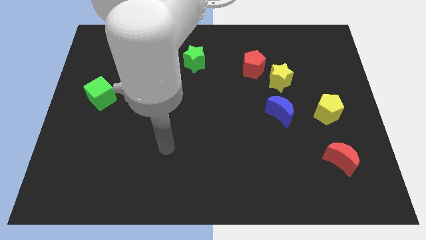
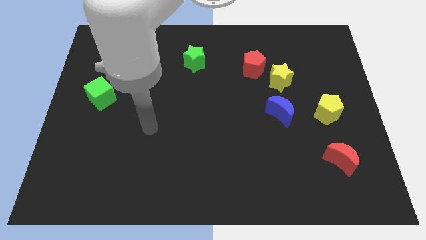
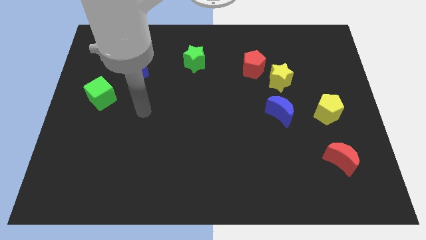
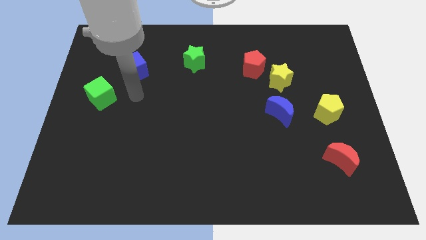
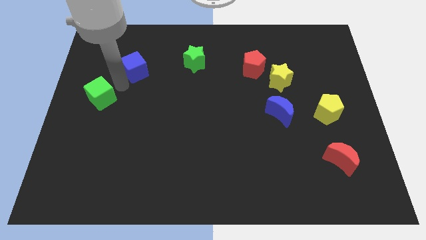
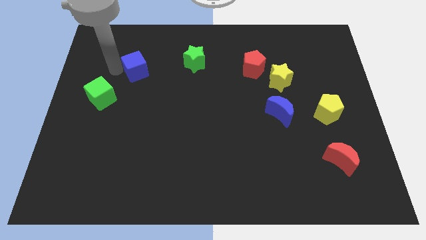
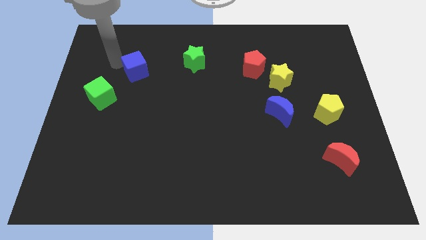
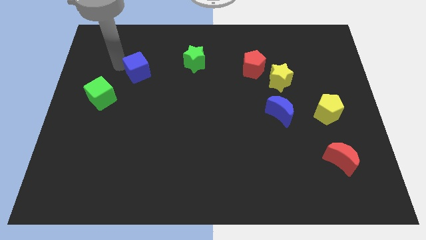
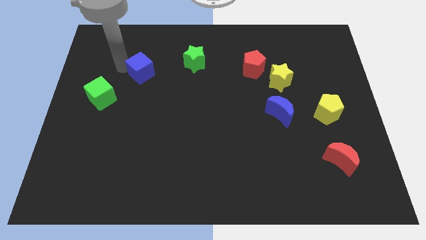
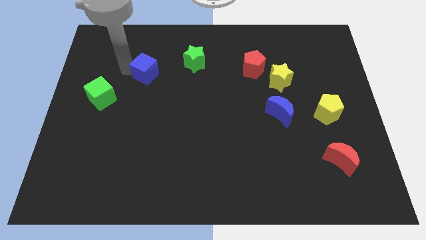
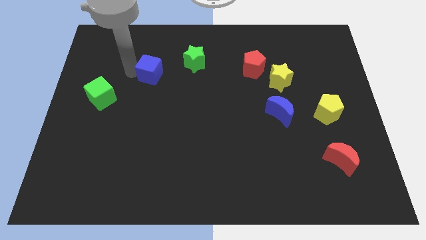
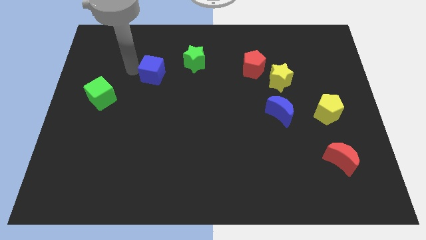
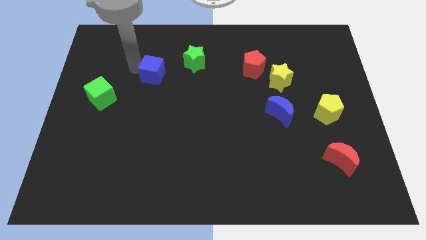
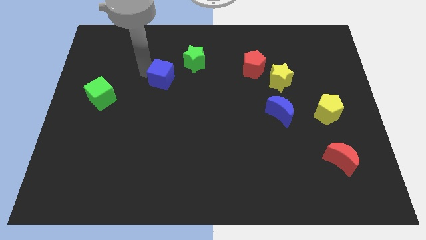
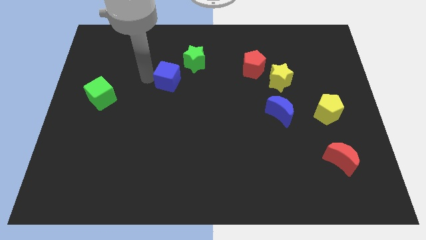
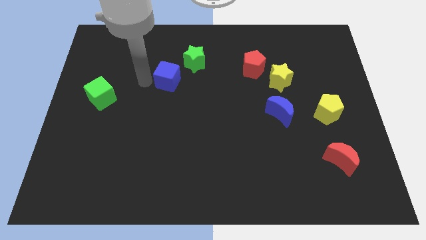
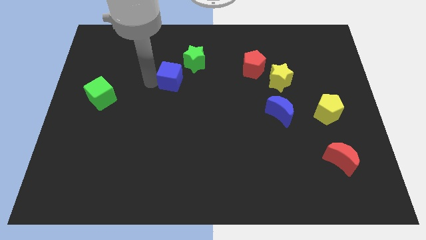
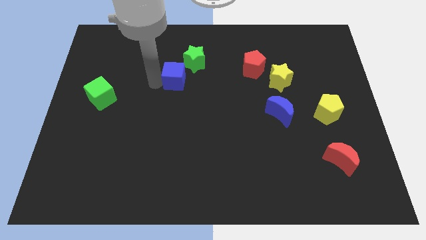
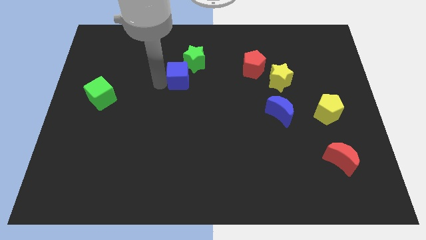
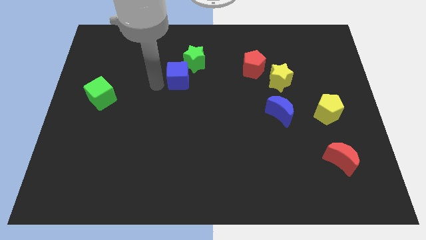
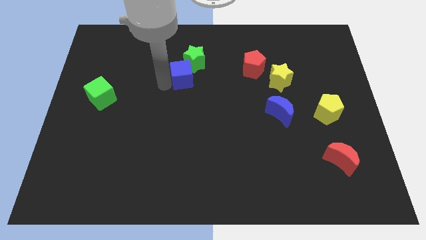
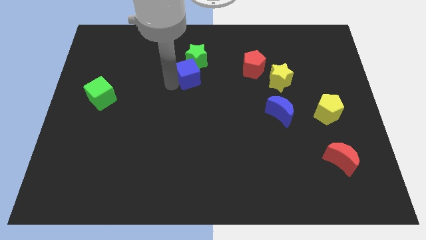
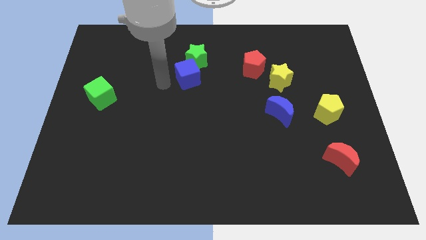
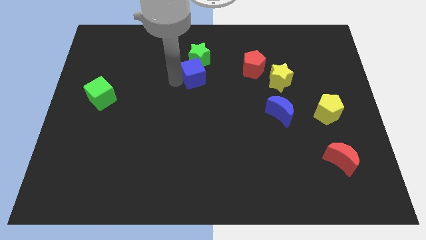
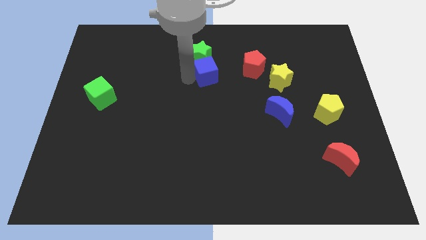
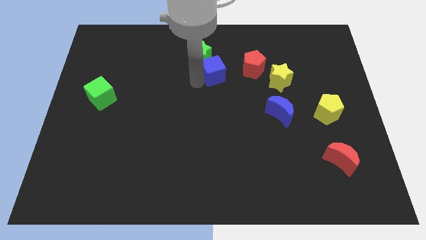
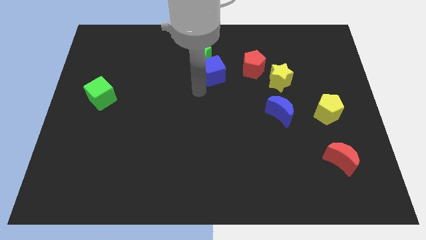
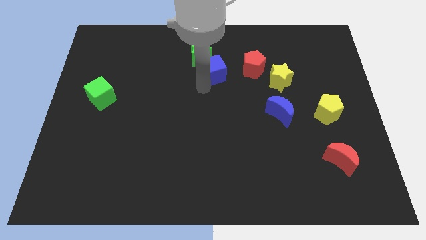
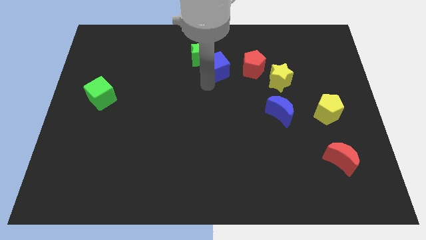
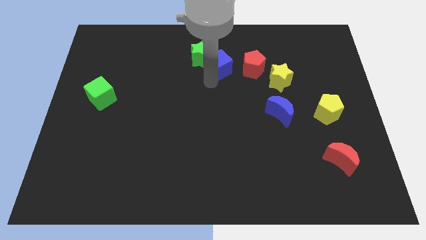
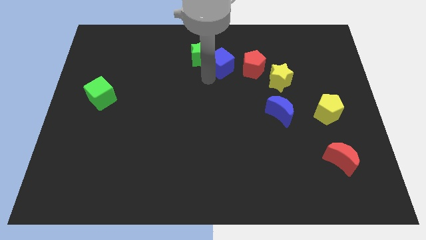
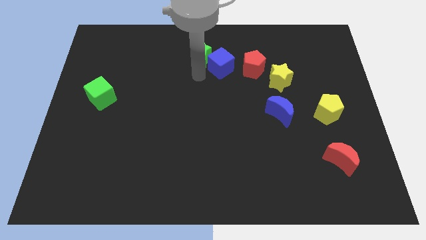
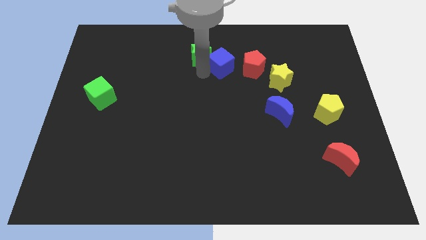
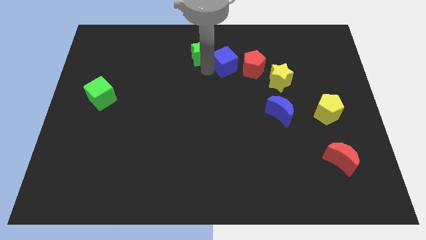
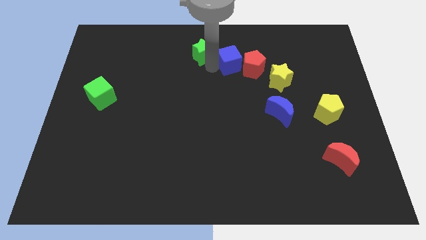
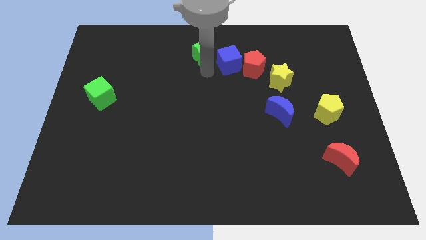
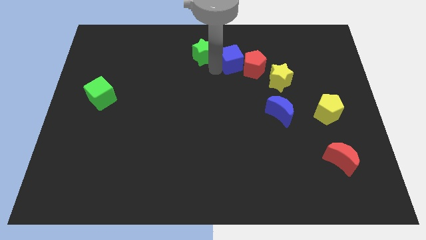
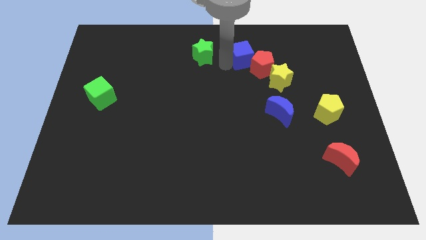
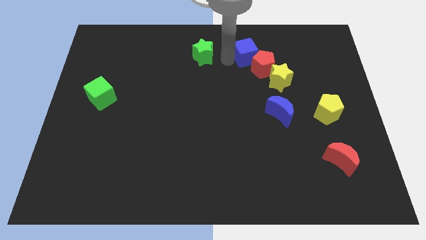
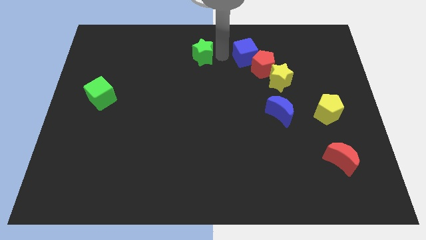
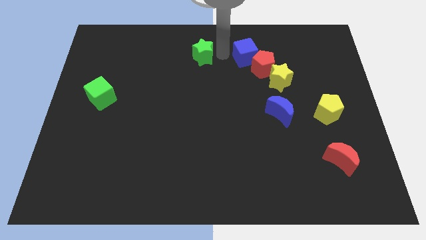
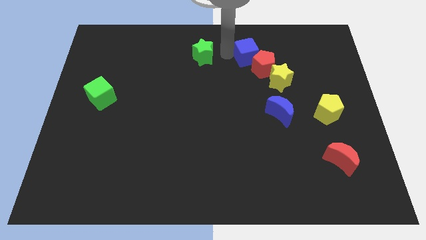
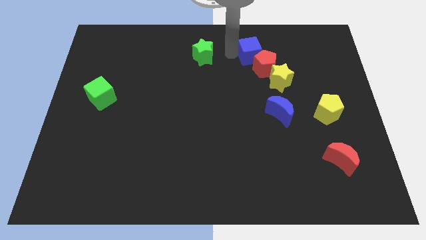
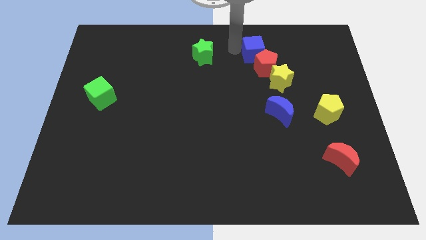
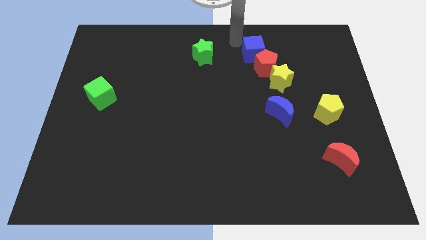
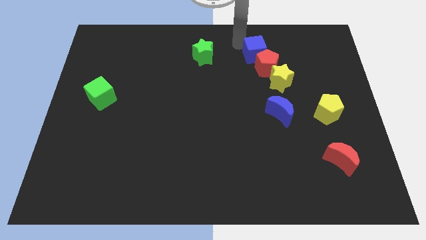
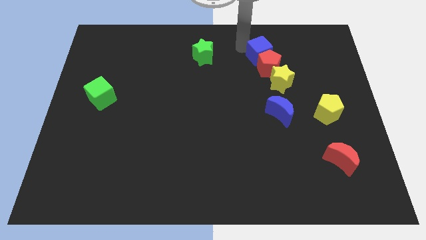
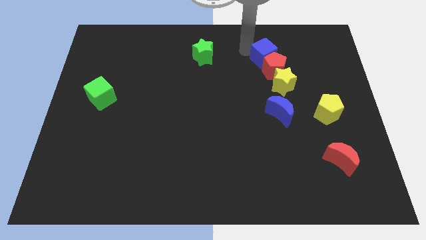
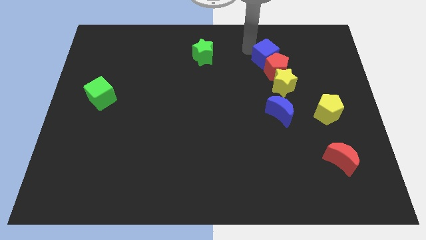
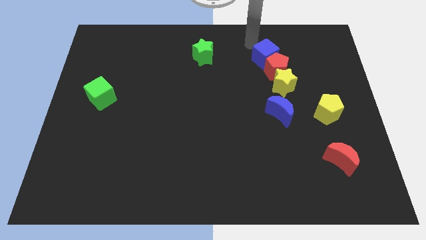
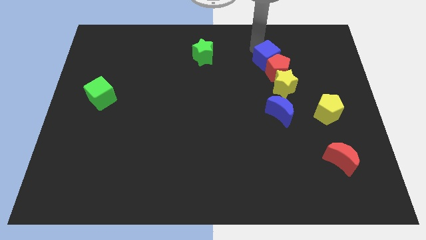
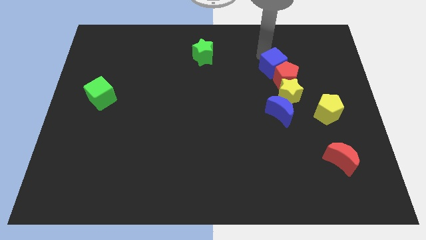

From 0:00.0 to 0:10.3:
put the blue cube to the top of the blue moon

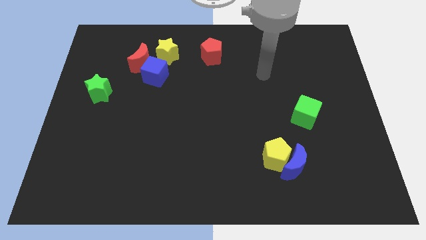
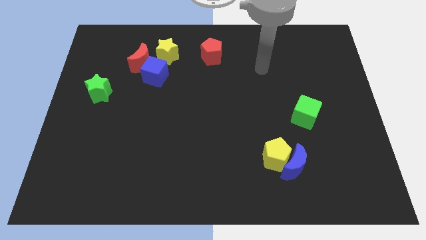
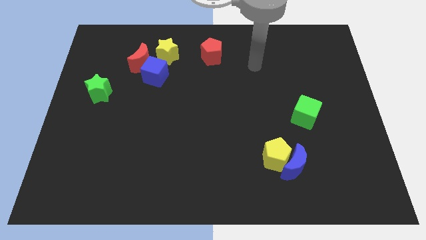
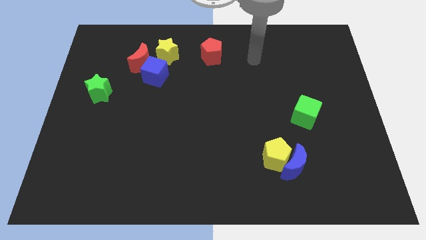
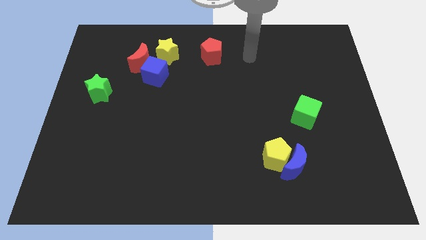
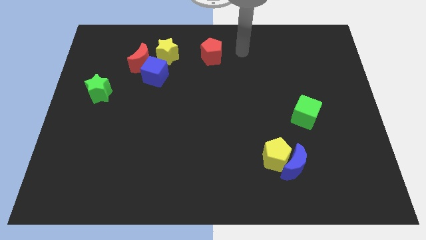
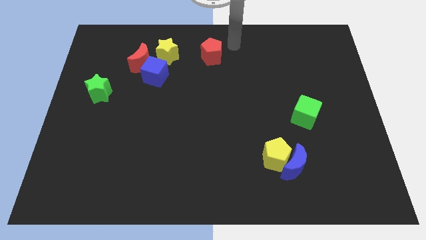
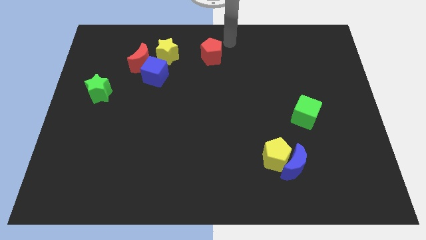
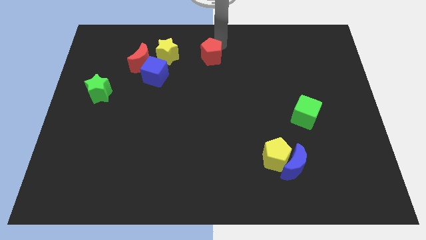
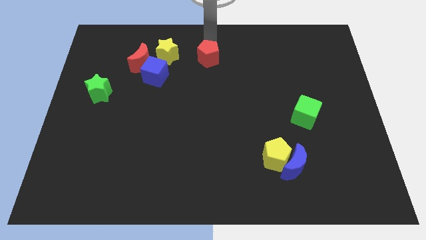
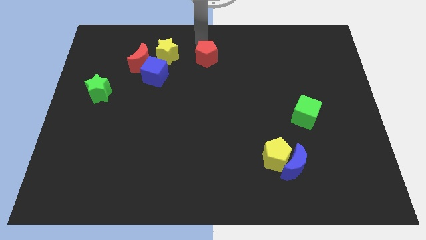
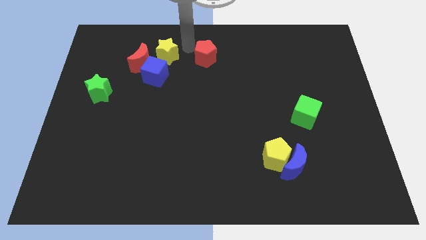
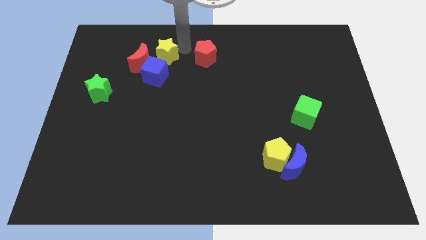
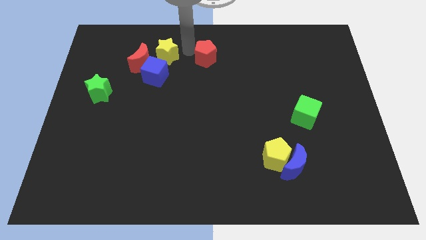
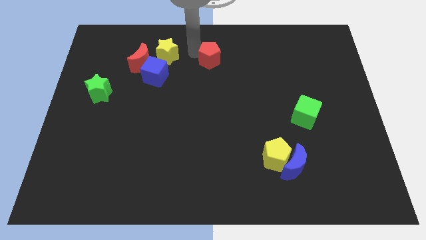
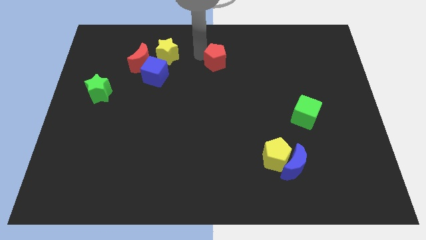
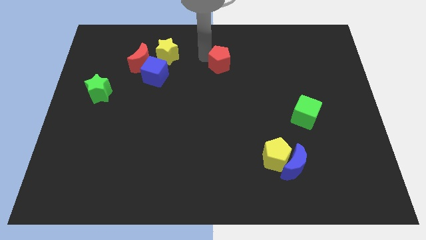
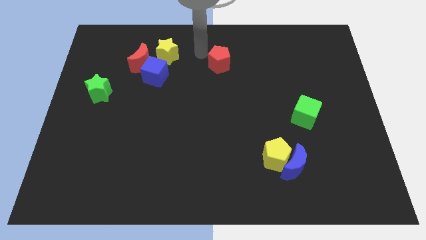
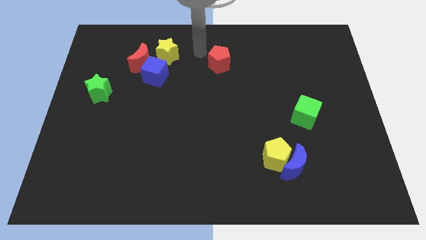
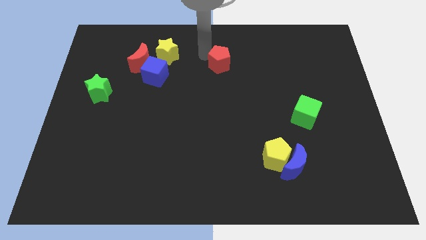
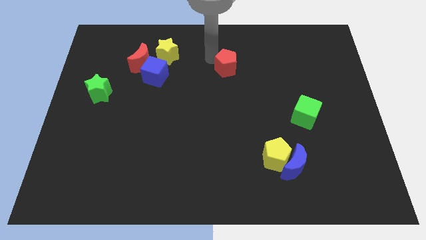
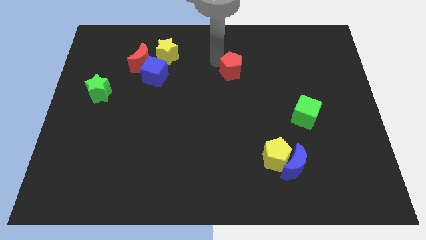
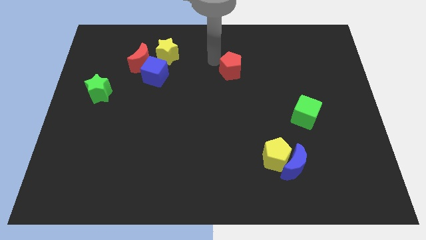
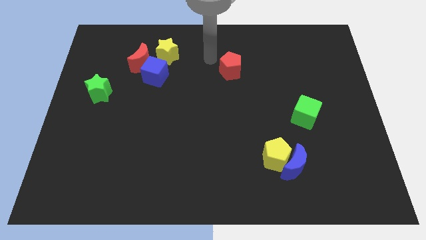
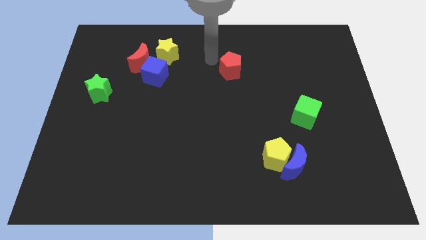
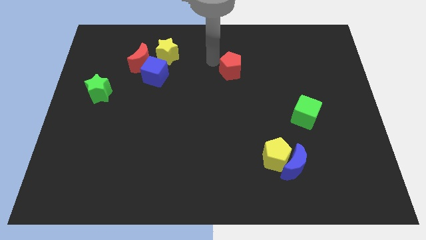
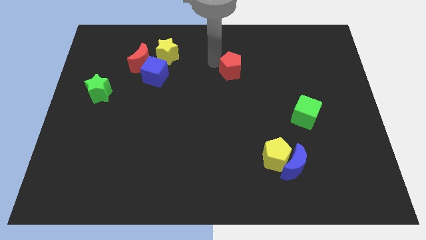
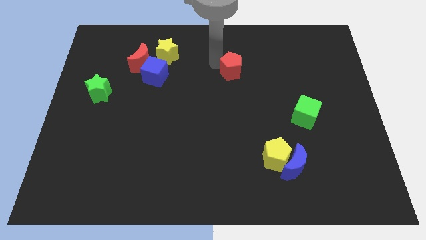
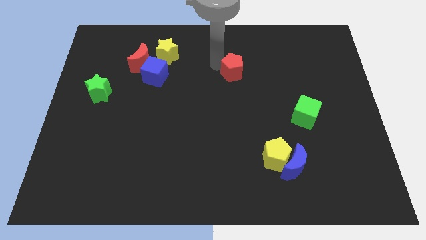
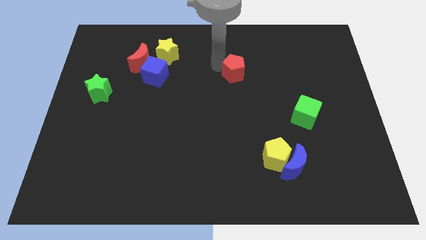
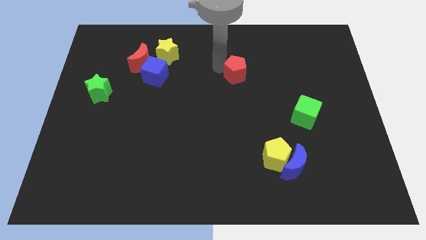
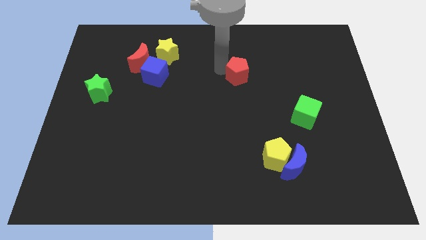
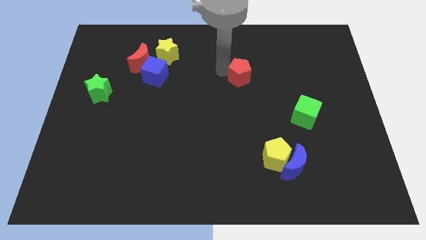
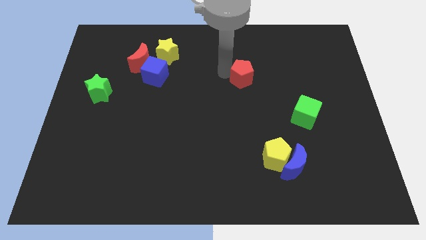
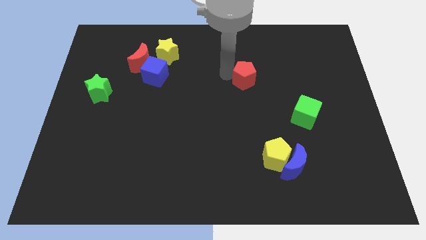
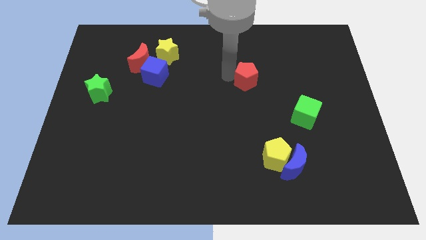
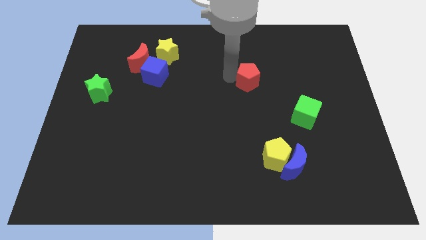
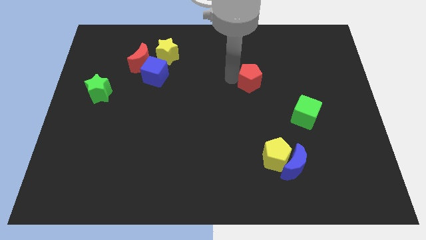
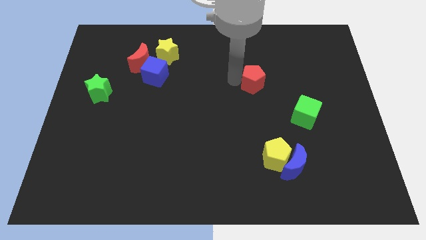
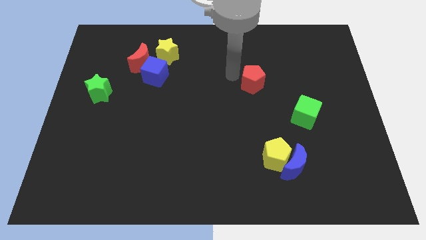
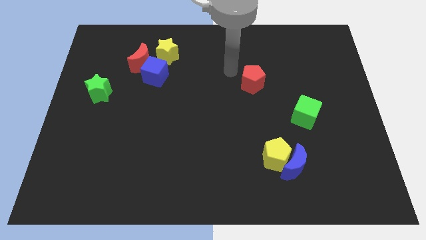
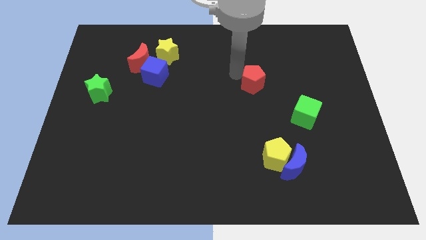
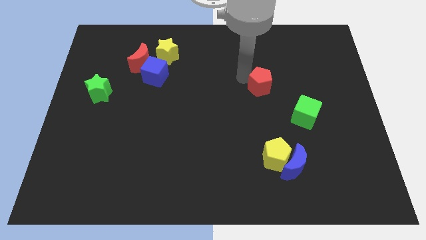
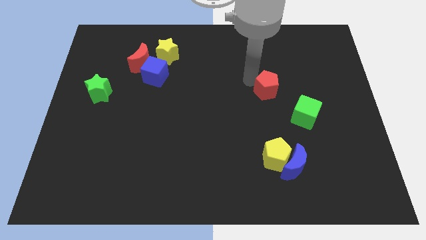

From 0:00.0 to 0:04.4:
slide the red pentagon to the top left side of the green cube
